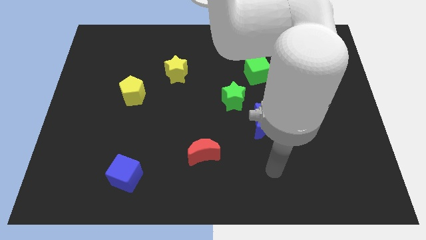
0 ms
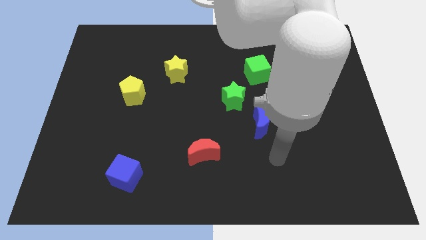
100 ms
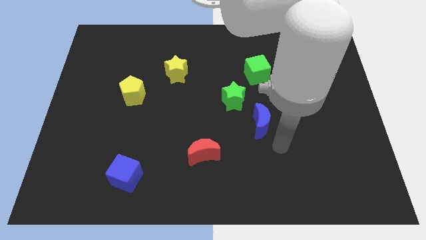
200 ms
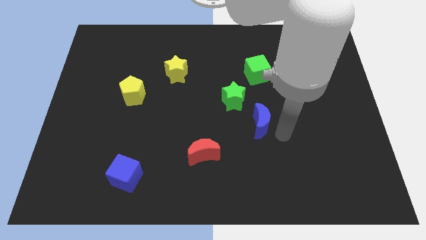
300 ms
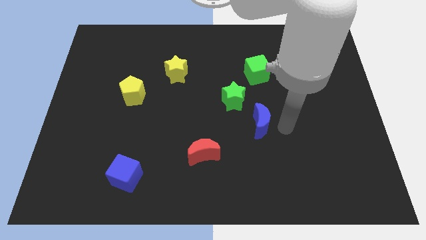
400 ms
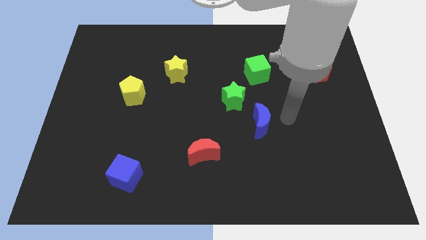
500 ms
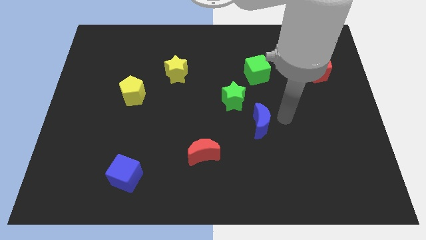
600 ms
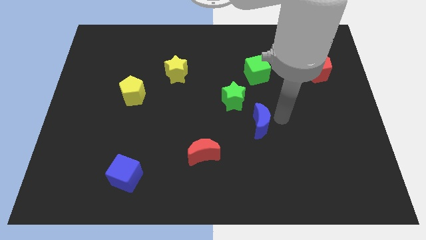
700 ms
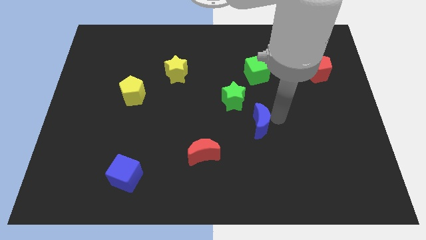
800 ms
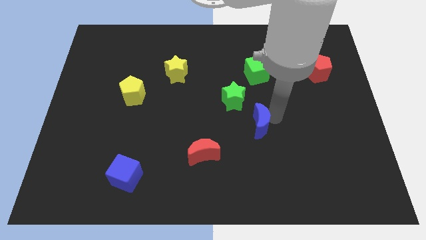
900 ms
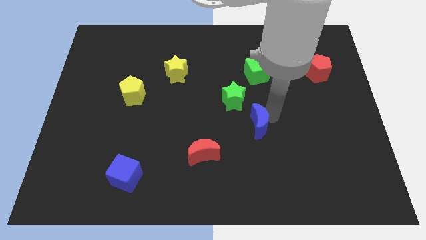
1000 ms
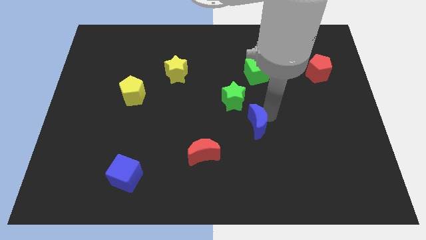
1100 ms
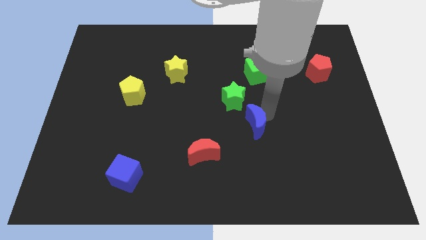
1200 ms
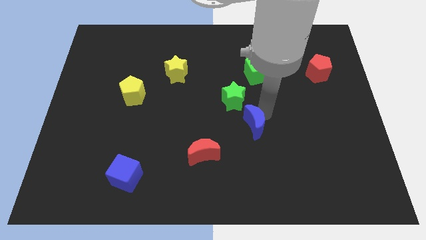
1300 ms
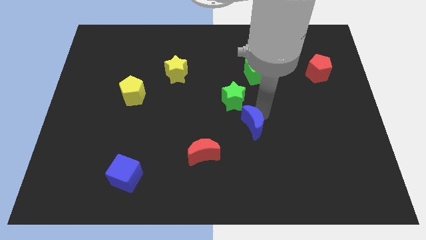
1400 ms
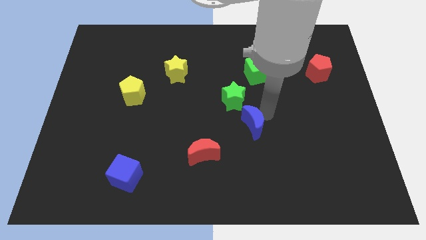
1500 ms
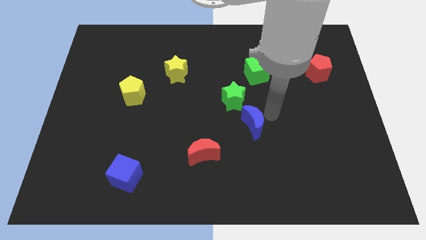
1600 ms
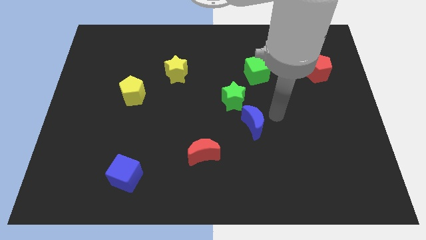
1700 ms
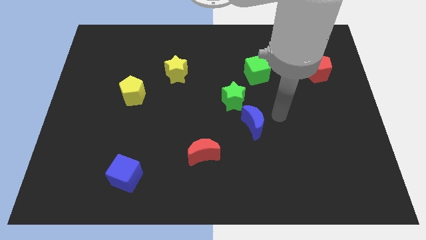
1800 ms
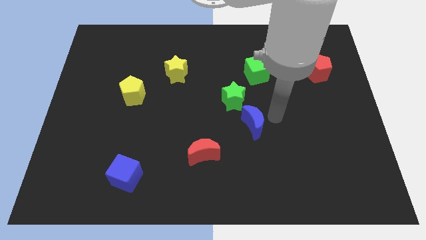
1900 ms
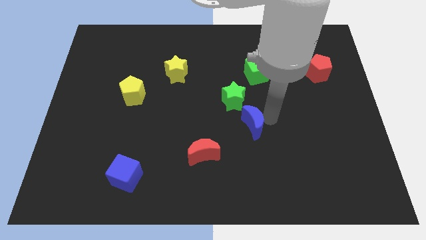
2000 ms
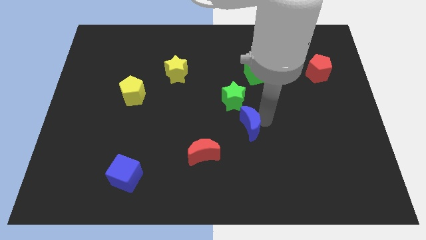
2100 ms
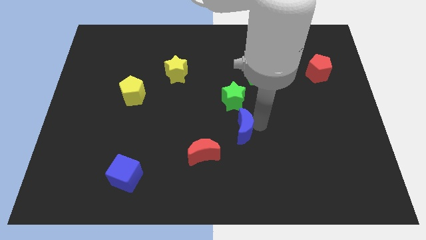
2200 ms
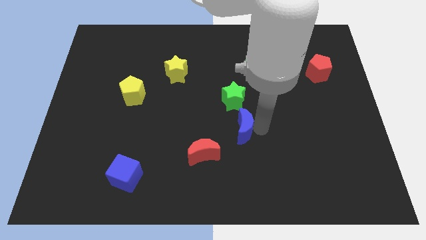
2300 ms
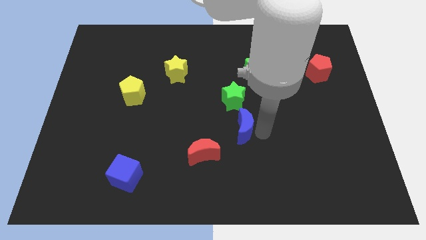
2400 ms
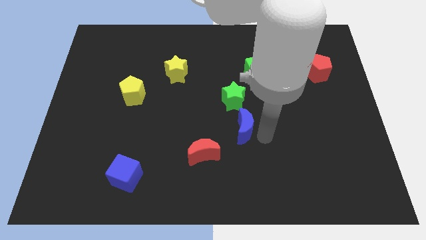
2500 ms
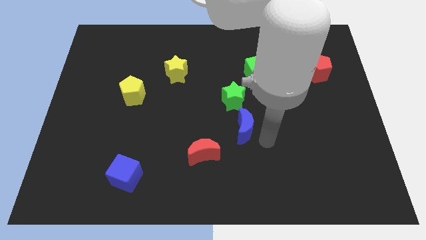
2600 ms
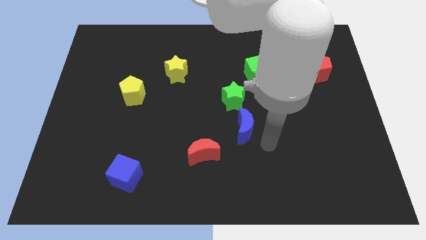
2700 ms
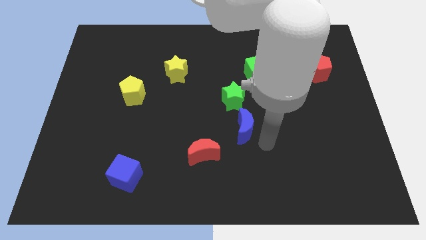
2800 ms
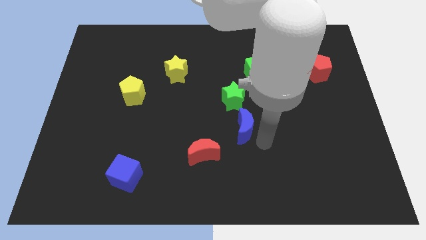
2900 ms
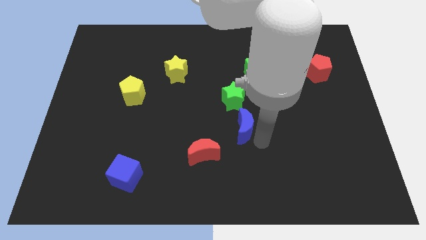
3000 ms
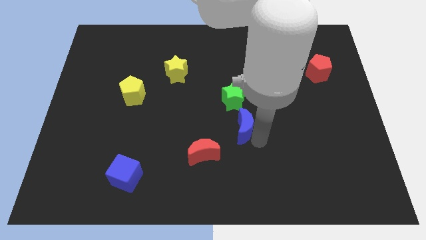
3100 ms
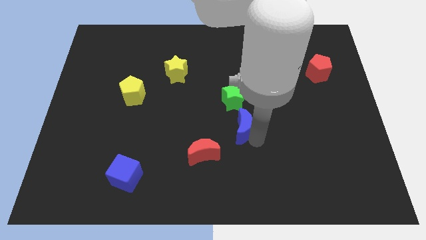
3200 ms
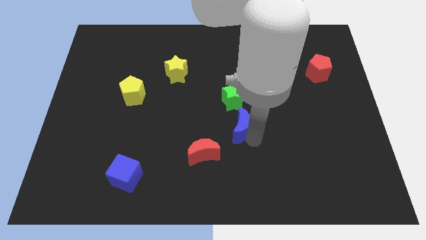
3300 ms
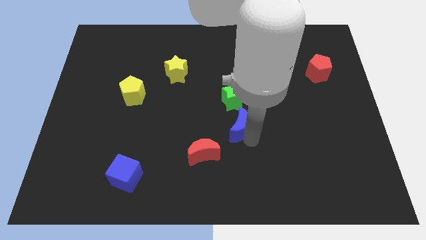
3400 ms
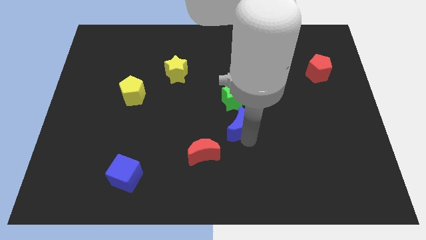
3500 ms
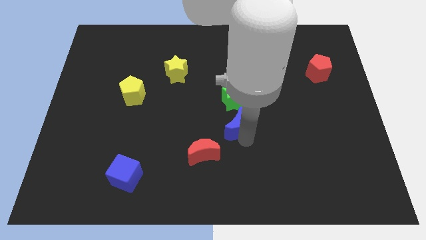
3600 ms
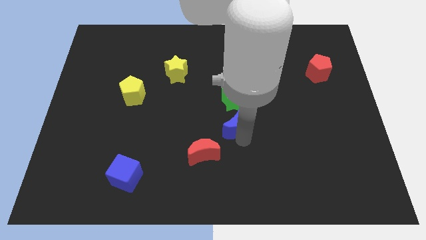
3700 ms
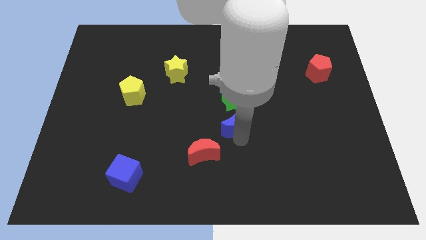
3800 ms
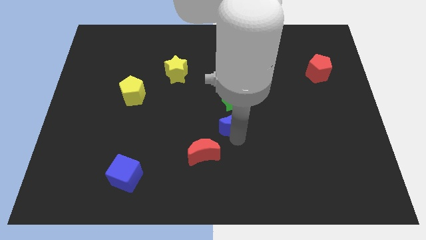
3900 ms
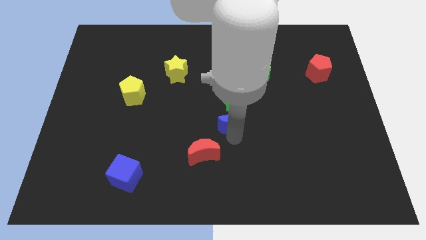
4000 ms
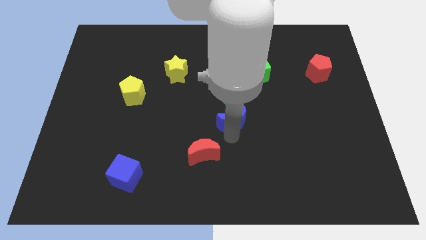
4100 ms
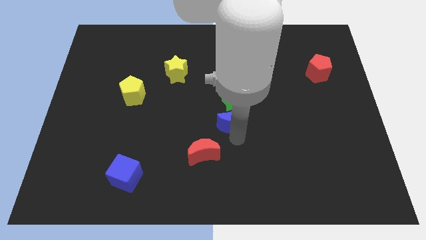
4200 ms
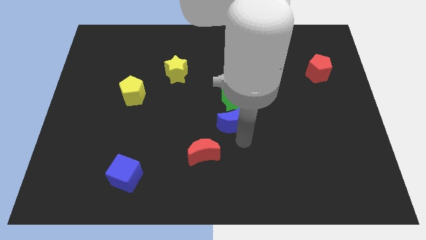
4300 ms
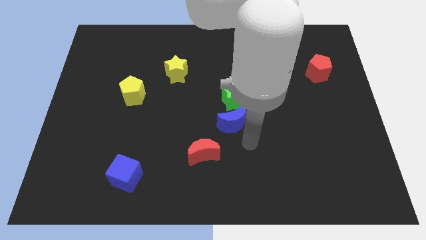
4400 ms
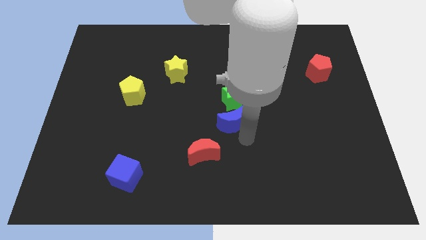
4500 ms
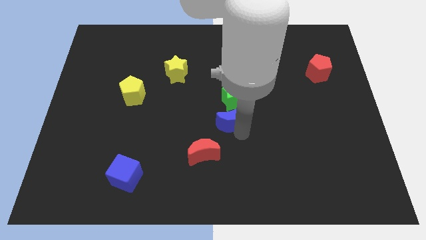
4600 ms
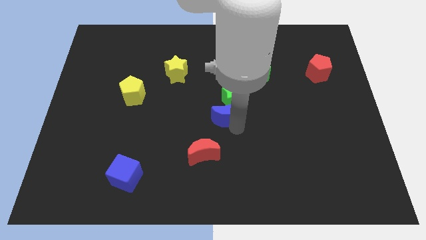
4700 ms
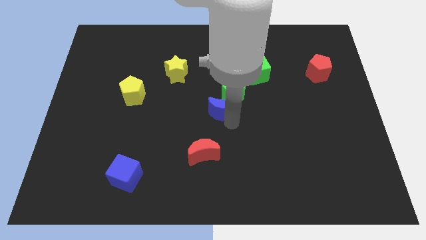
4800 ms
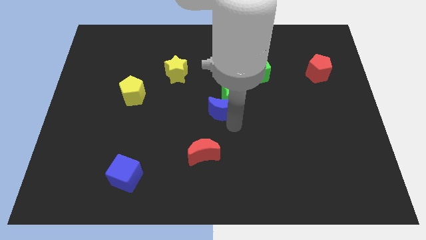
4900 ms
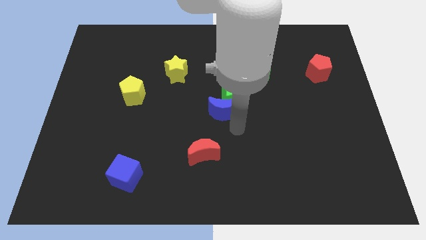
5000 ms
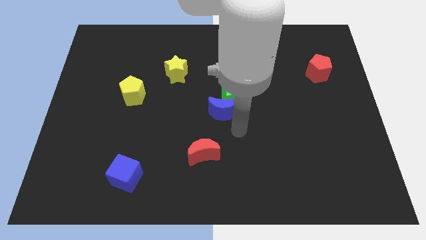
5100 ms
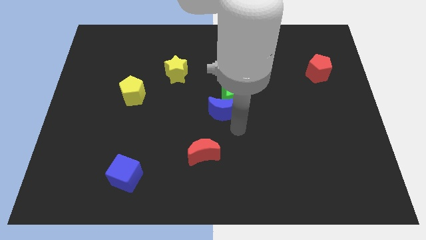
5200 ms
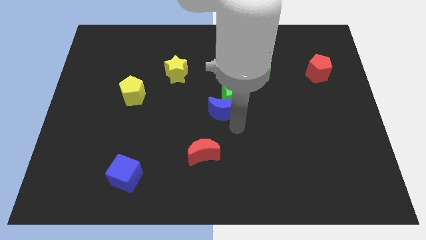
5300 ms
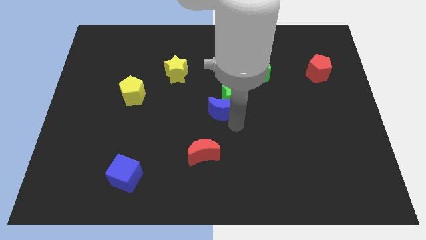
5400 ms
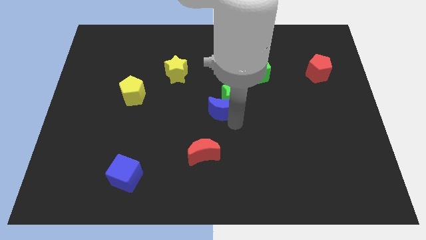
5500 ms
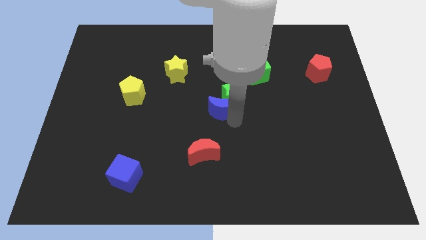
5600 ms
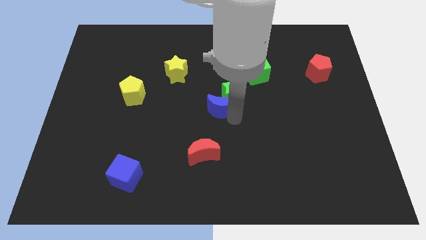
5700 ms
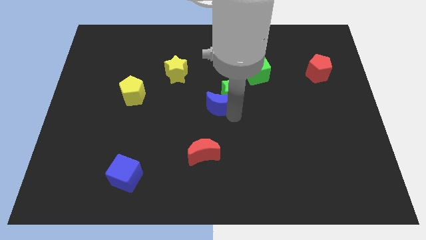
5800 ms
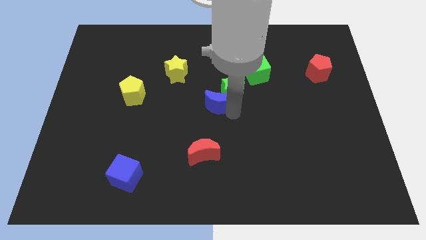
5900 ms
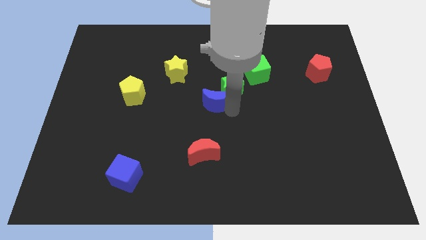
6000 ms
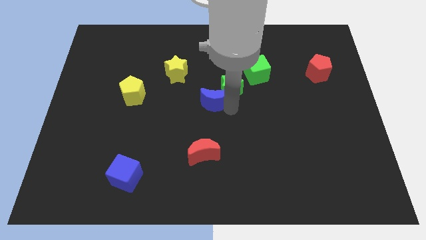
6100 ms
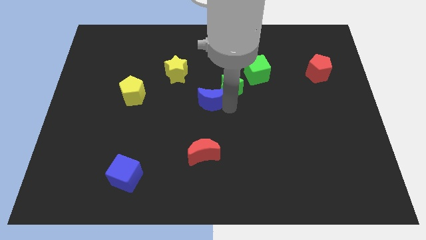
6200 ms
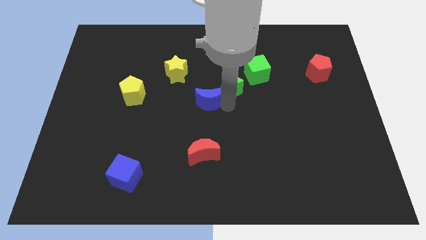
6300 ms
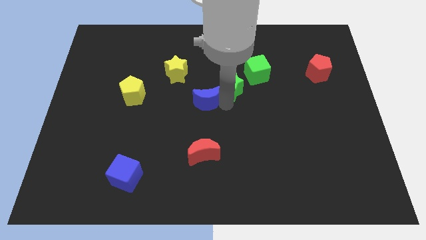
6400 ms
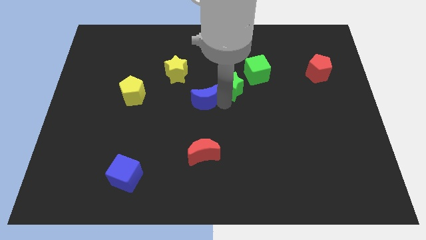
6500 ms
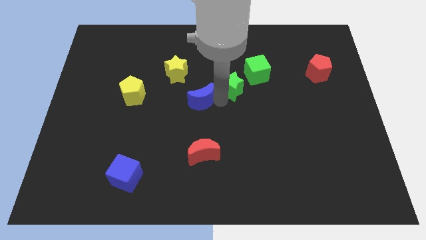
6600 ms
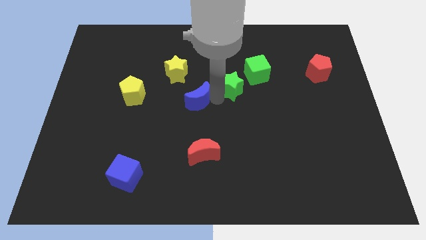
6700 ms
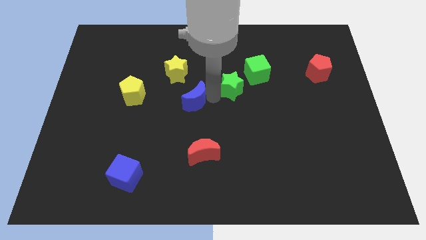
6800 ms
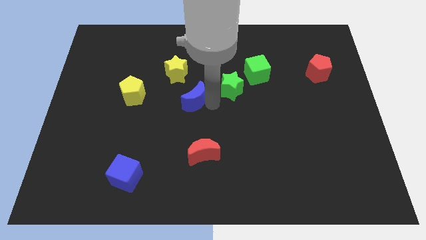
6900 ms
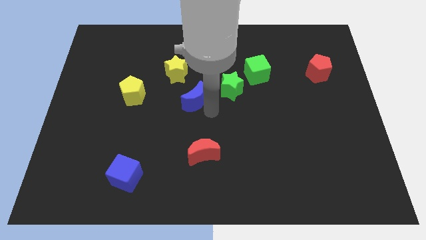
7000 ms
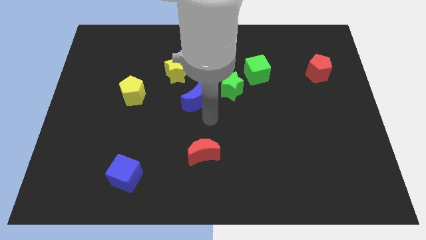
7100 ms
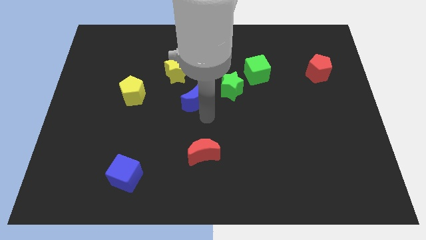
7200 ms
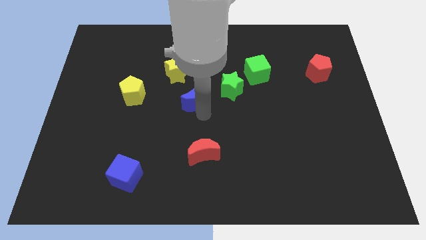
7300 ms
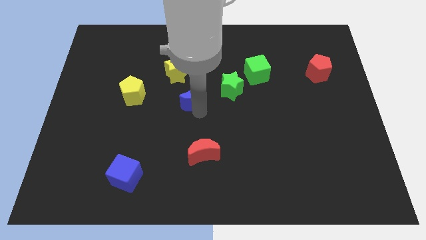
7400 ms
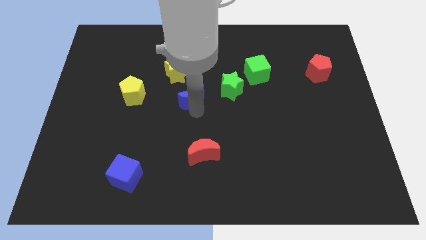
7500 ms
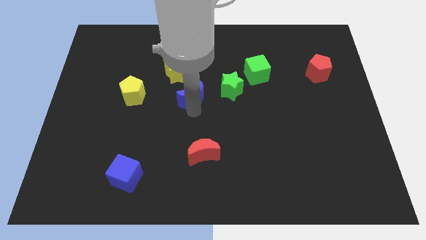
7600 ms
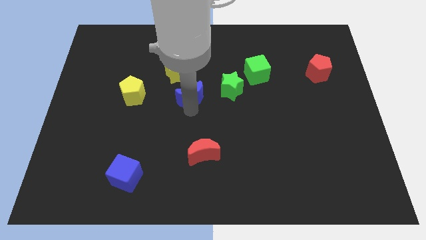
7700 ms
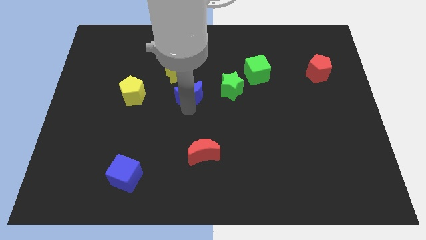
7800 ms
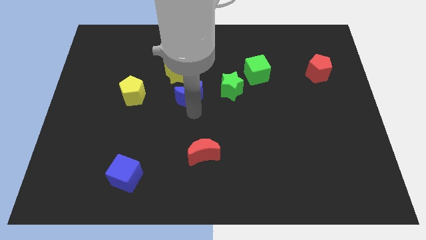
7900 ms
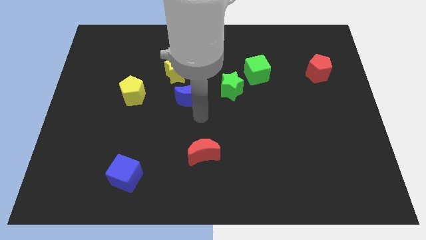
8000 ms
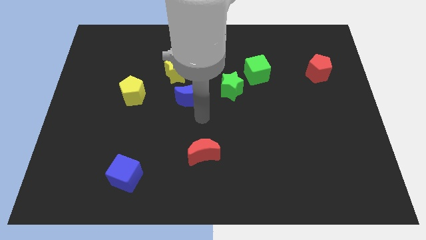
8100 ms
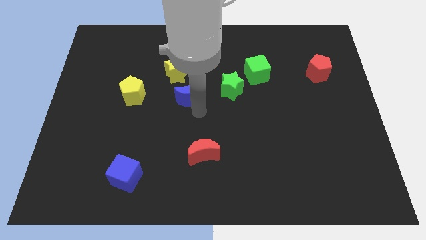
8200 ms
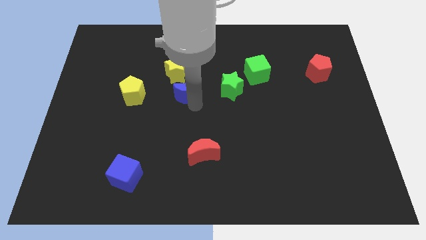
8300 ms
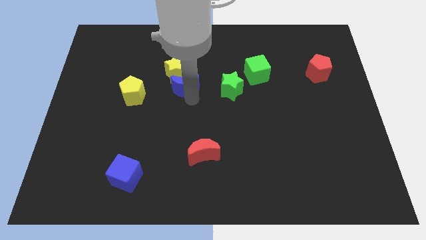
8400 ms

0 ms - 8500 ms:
put the blue moon close to the yellow star
